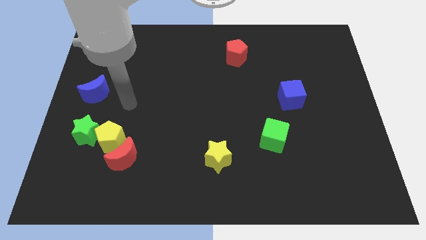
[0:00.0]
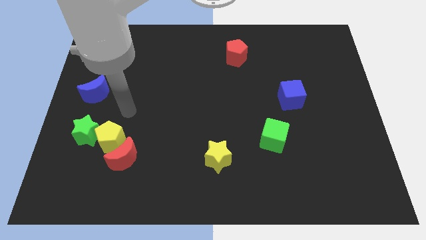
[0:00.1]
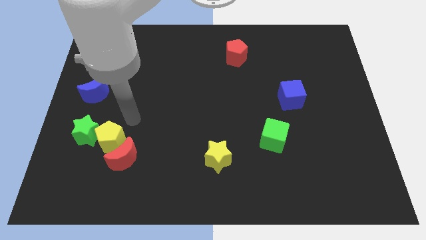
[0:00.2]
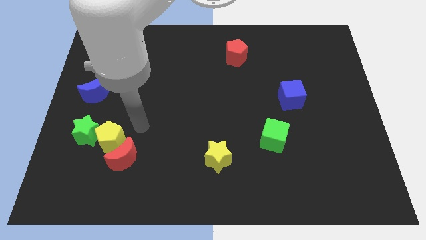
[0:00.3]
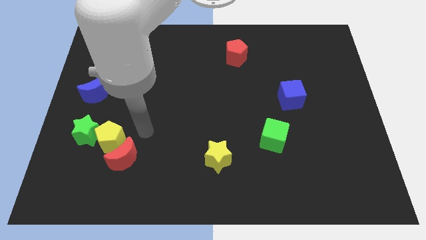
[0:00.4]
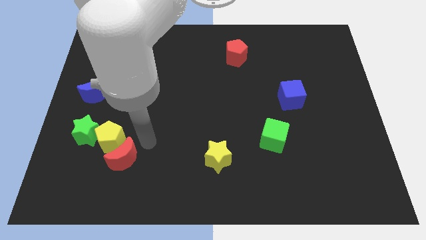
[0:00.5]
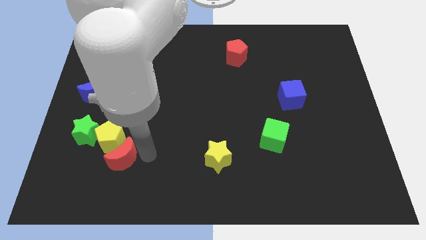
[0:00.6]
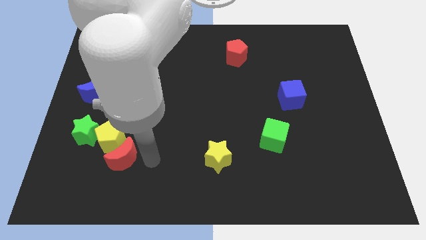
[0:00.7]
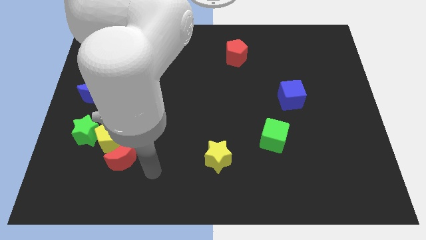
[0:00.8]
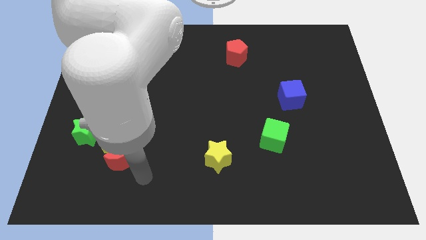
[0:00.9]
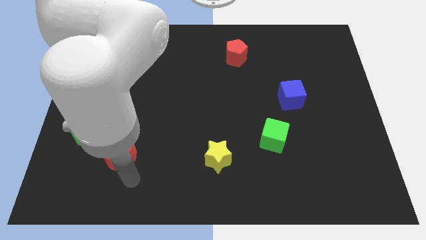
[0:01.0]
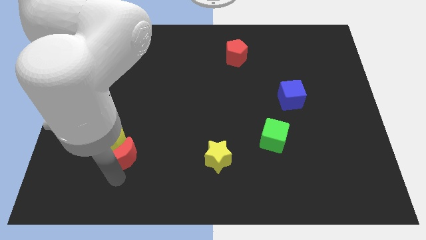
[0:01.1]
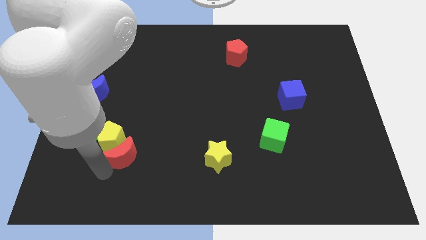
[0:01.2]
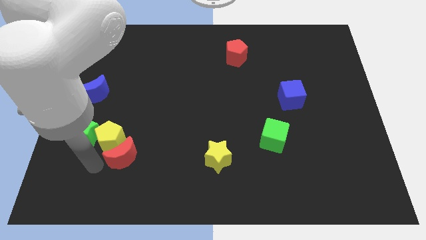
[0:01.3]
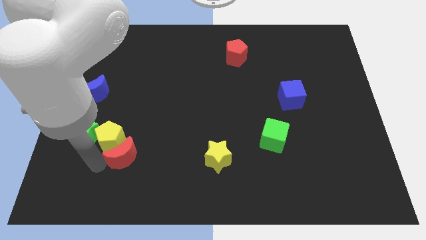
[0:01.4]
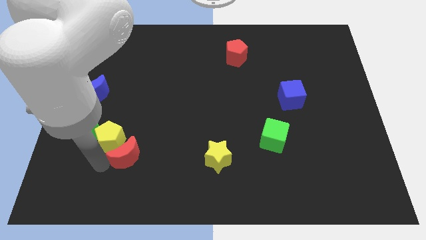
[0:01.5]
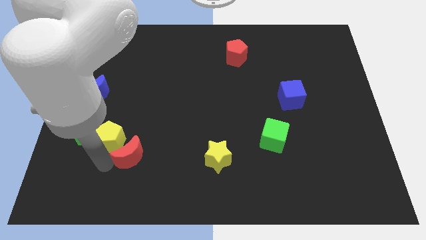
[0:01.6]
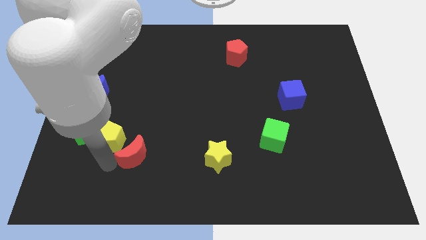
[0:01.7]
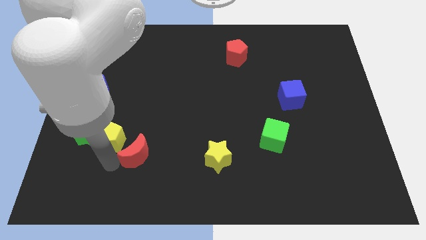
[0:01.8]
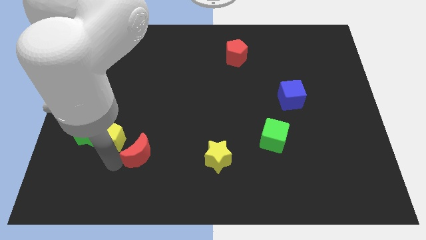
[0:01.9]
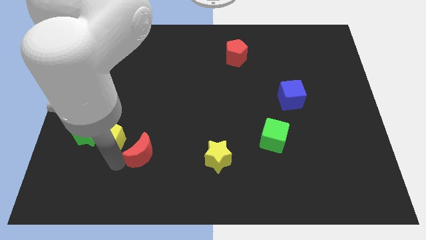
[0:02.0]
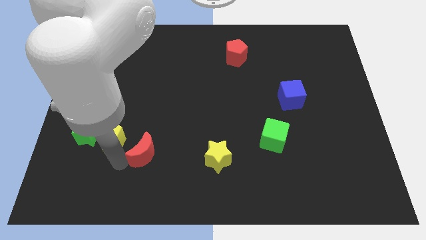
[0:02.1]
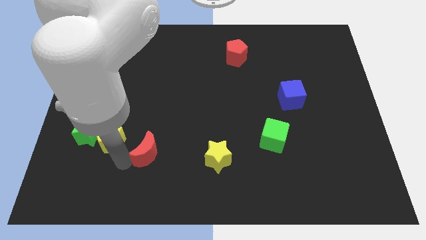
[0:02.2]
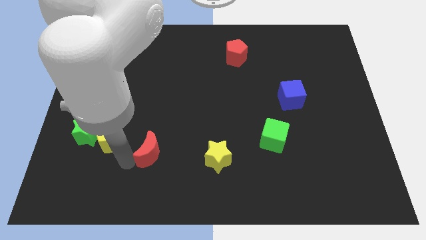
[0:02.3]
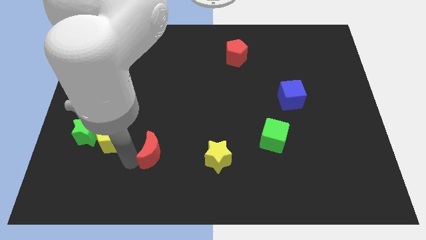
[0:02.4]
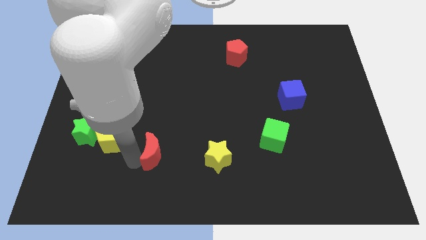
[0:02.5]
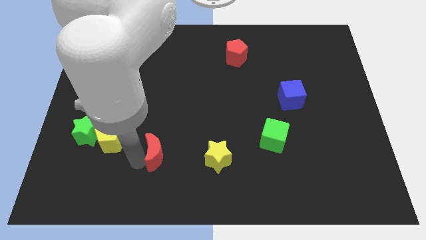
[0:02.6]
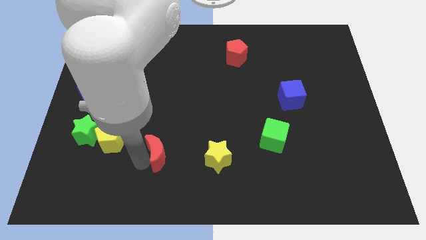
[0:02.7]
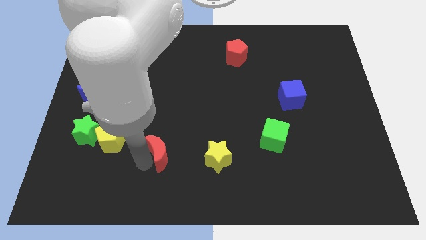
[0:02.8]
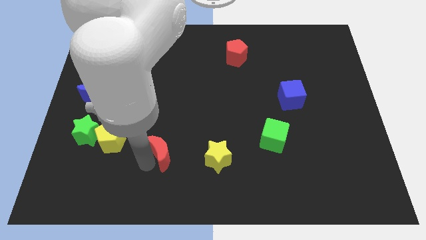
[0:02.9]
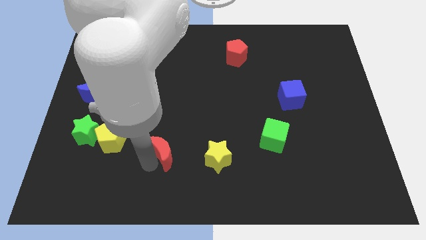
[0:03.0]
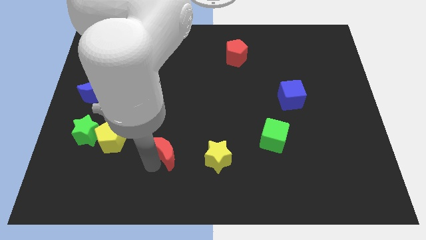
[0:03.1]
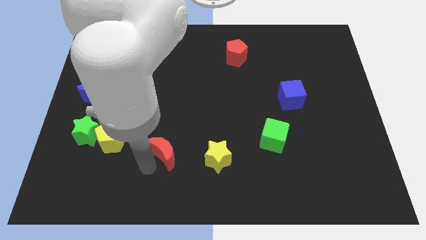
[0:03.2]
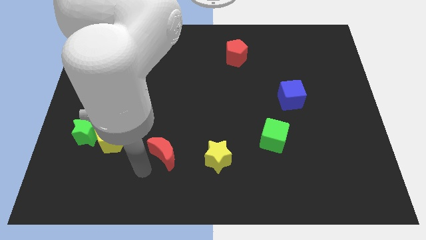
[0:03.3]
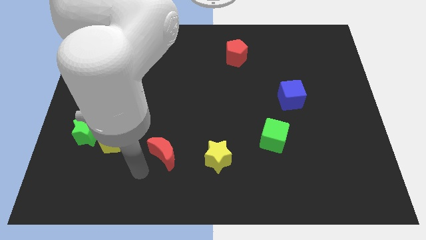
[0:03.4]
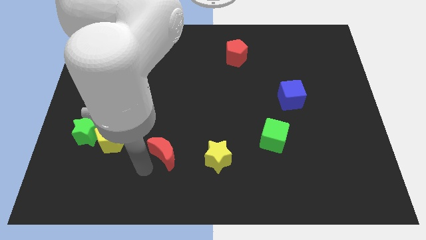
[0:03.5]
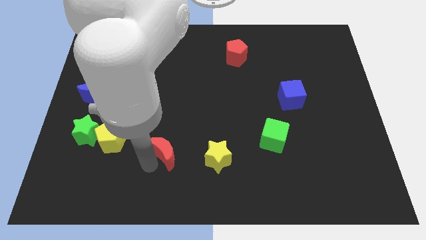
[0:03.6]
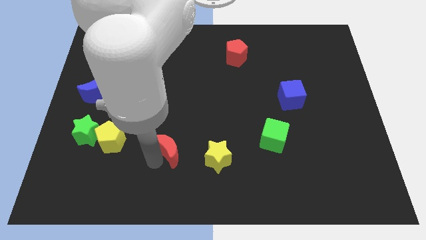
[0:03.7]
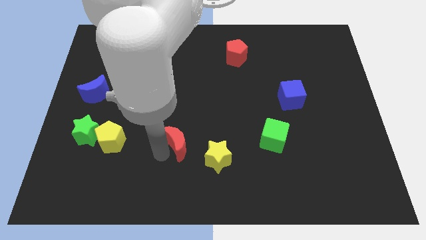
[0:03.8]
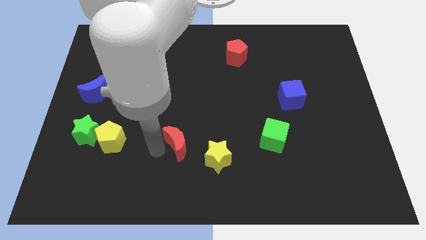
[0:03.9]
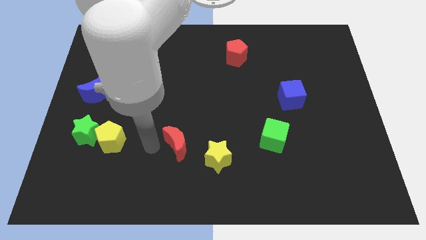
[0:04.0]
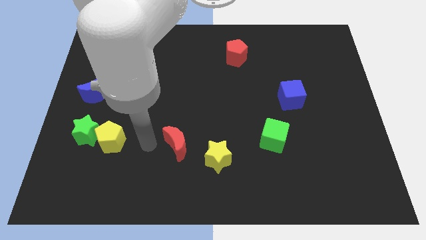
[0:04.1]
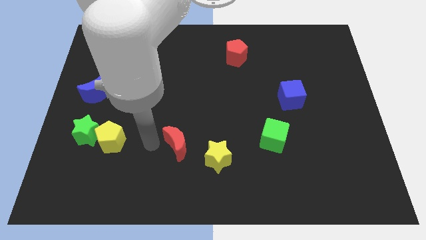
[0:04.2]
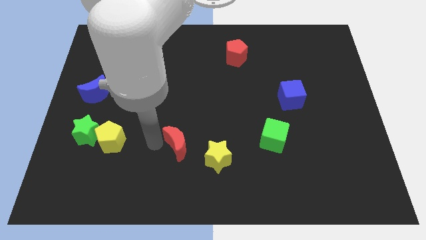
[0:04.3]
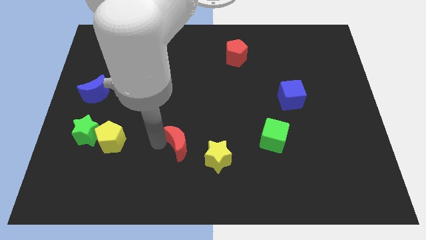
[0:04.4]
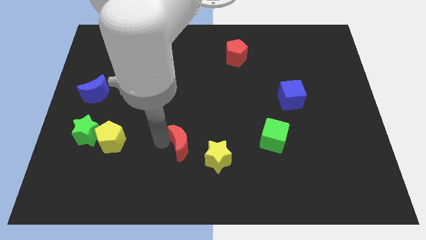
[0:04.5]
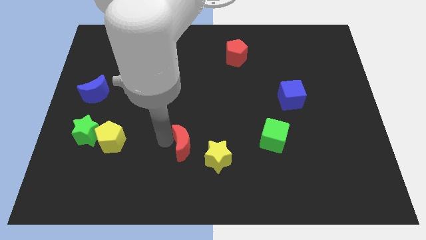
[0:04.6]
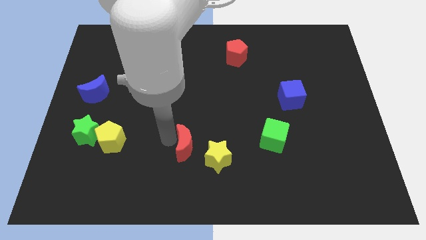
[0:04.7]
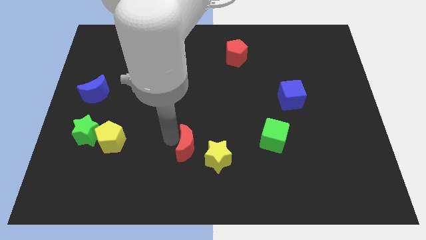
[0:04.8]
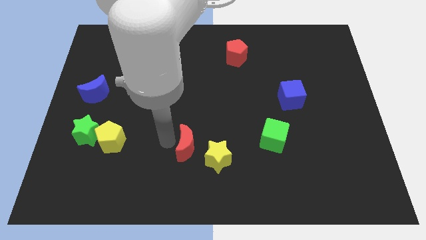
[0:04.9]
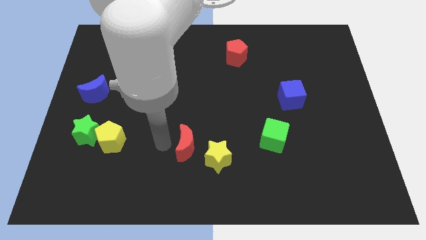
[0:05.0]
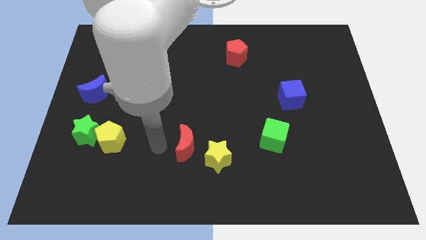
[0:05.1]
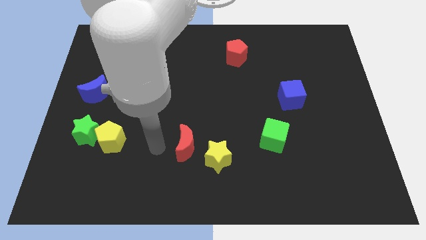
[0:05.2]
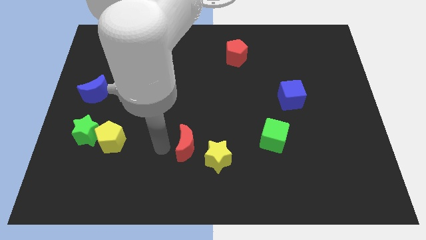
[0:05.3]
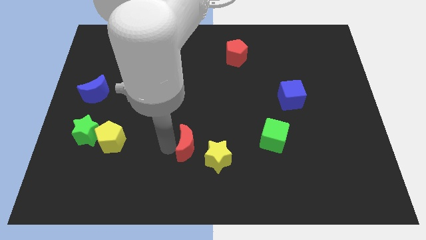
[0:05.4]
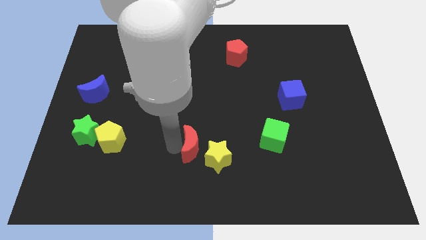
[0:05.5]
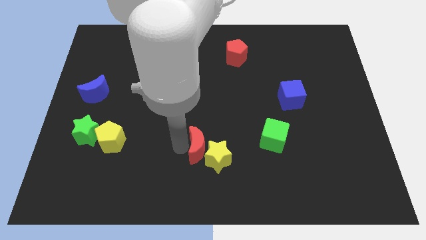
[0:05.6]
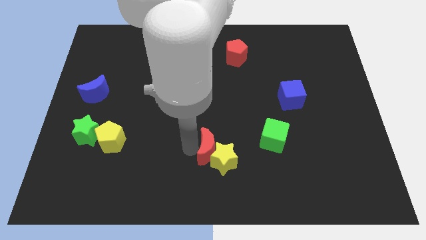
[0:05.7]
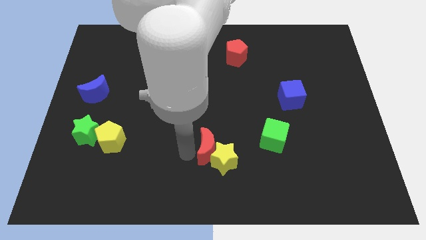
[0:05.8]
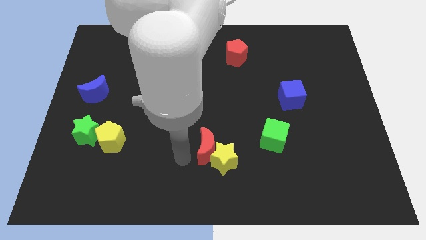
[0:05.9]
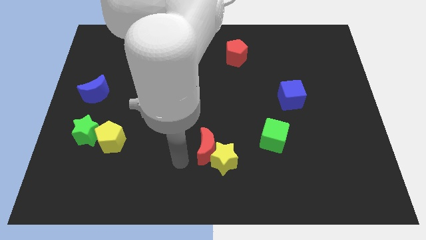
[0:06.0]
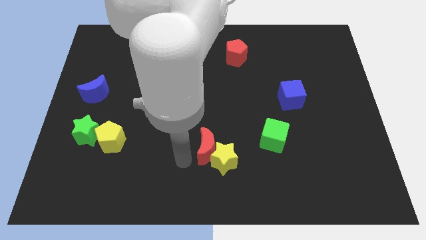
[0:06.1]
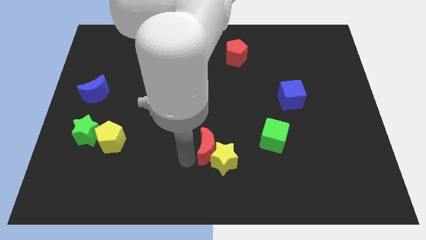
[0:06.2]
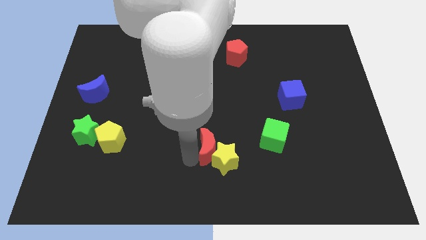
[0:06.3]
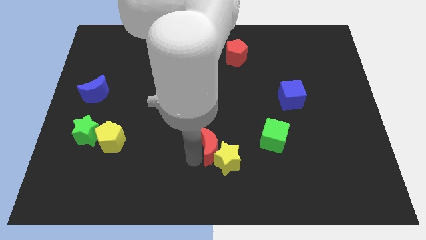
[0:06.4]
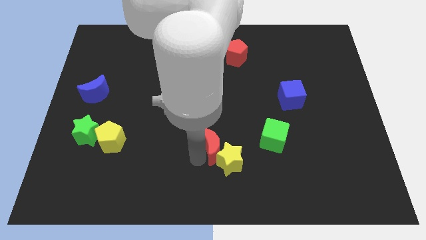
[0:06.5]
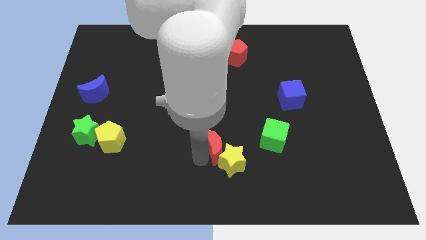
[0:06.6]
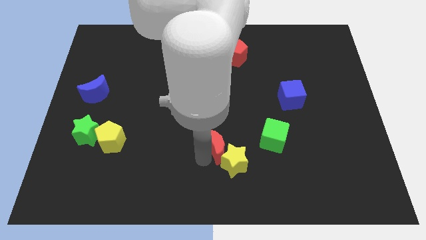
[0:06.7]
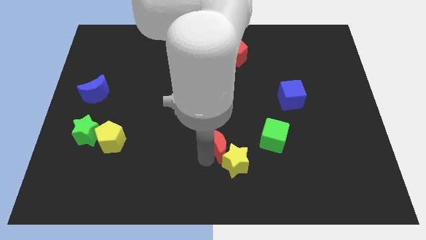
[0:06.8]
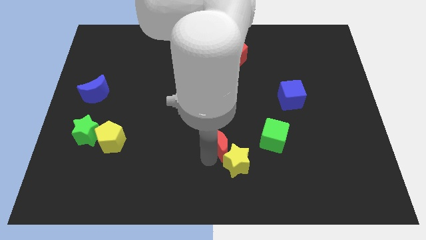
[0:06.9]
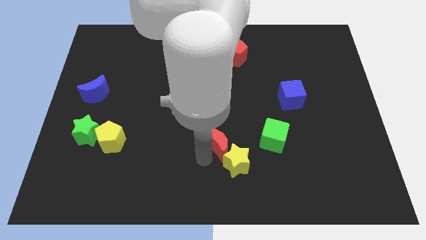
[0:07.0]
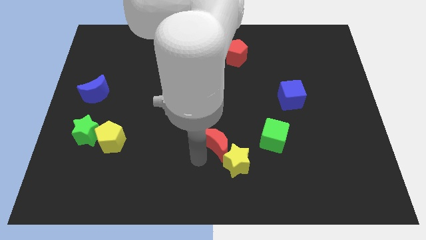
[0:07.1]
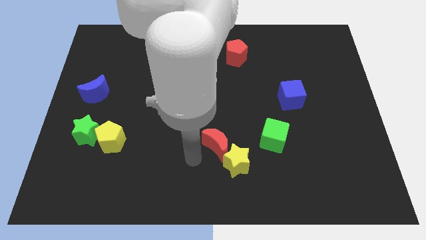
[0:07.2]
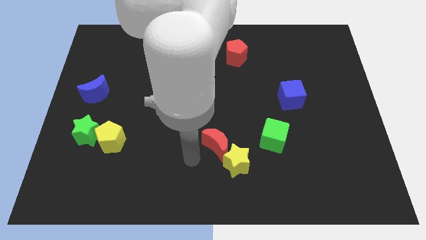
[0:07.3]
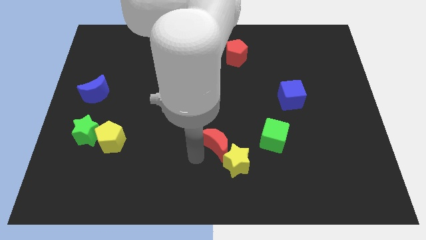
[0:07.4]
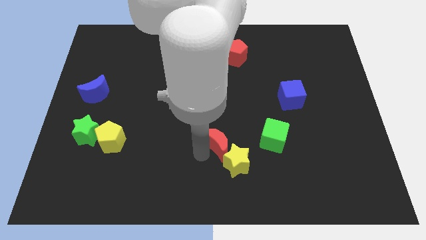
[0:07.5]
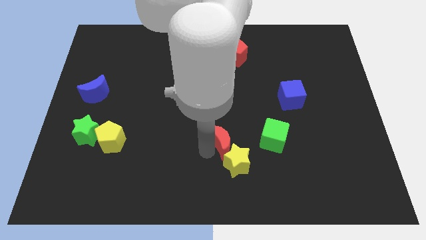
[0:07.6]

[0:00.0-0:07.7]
move the red moon to the right
